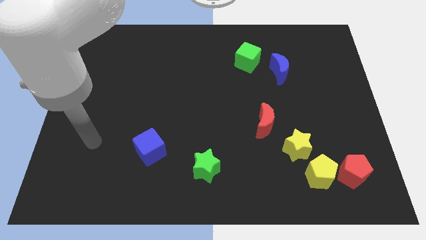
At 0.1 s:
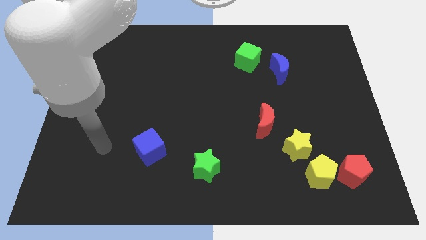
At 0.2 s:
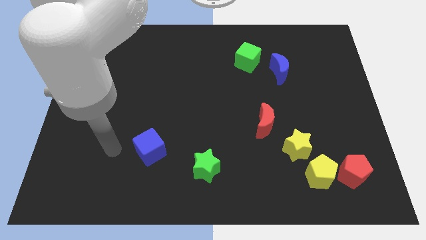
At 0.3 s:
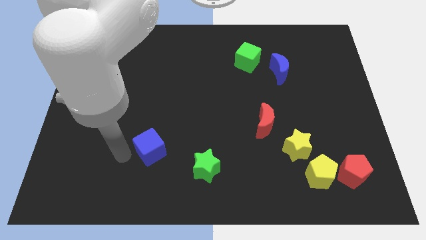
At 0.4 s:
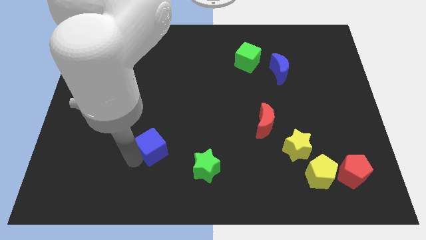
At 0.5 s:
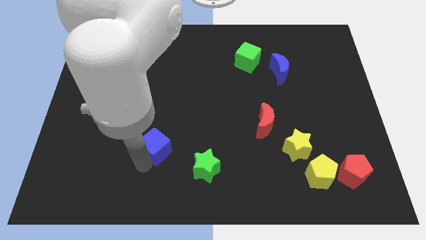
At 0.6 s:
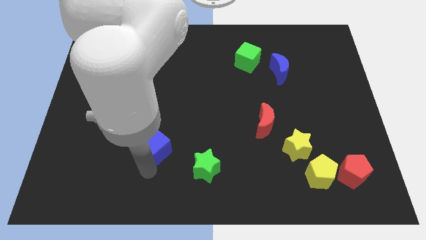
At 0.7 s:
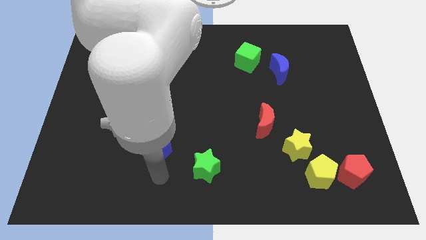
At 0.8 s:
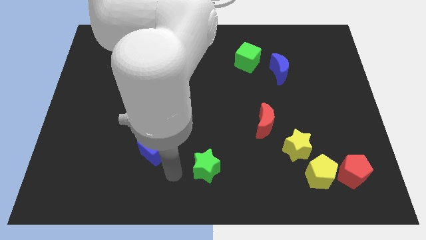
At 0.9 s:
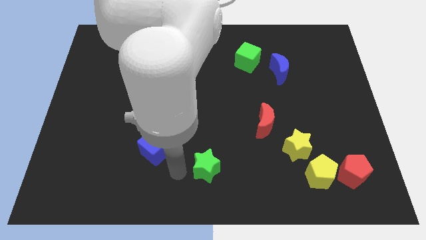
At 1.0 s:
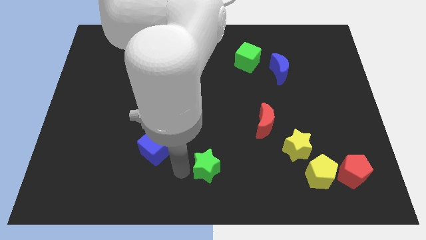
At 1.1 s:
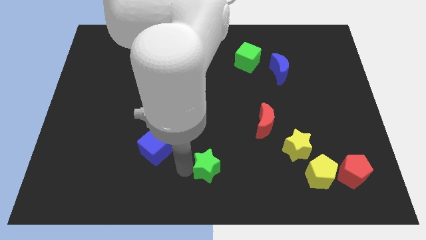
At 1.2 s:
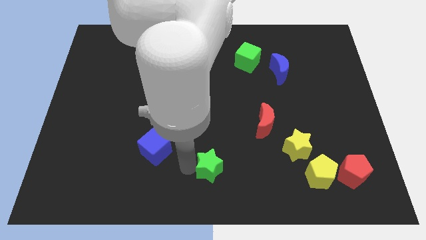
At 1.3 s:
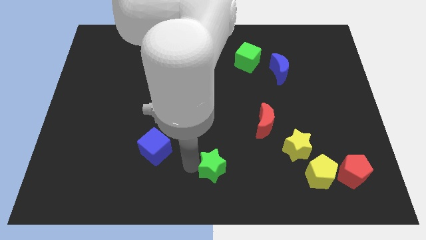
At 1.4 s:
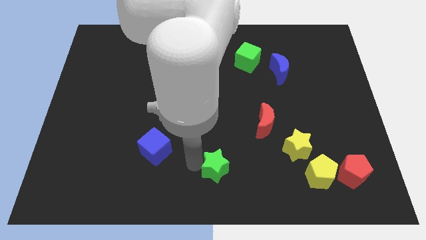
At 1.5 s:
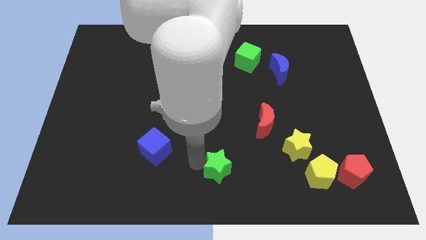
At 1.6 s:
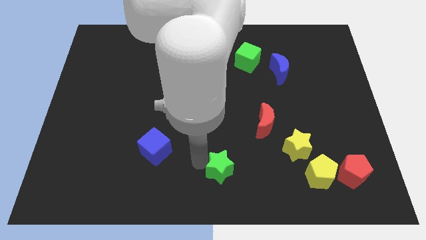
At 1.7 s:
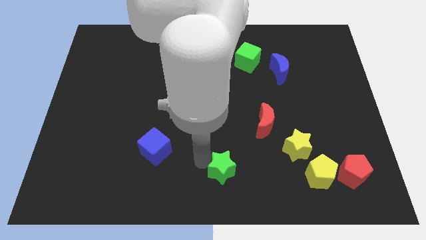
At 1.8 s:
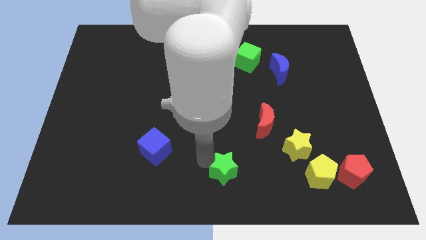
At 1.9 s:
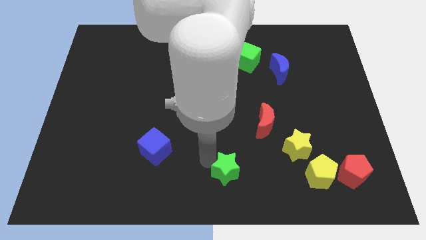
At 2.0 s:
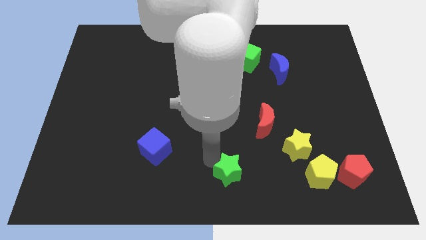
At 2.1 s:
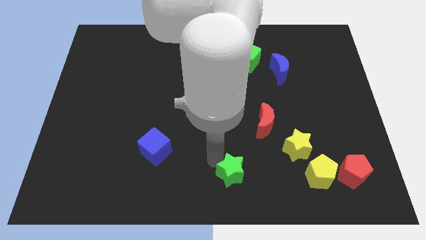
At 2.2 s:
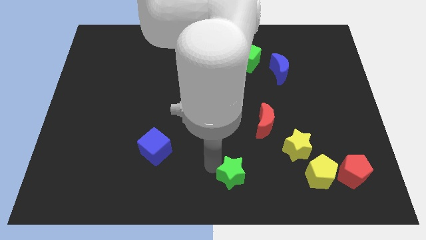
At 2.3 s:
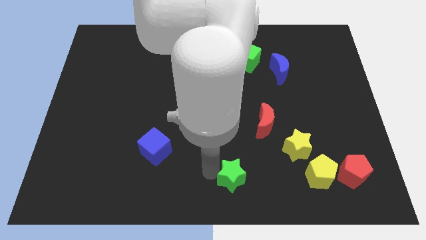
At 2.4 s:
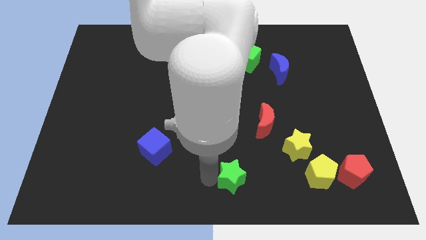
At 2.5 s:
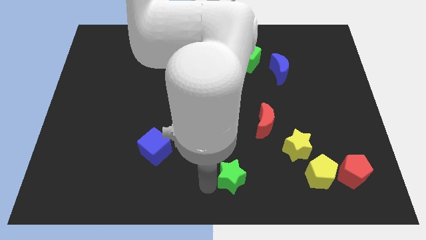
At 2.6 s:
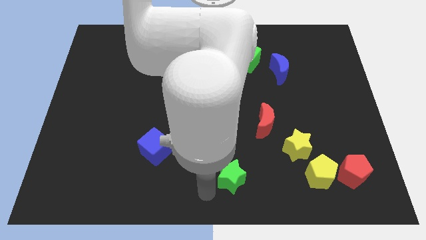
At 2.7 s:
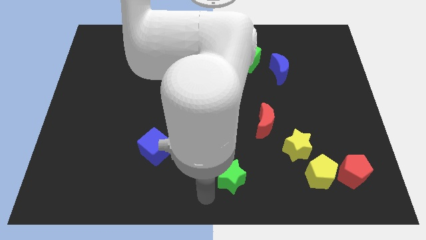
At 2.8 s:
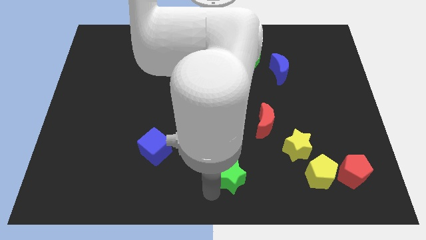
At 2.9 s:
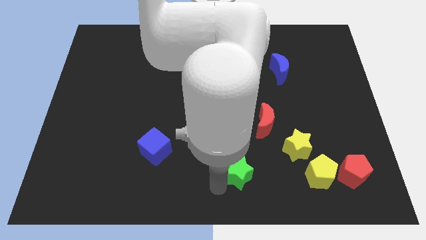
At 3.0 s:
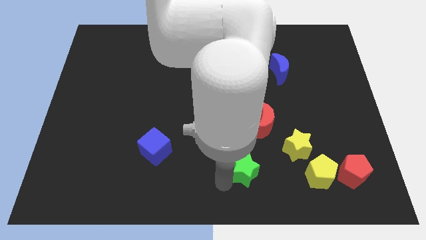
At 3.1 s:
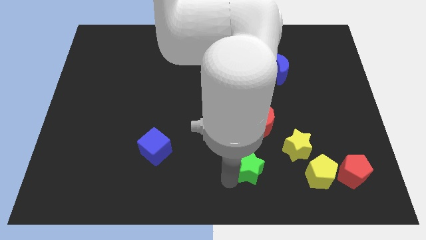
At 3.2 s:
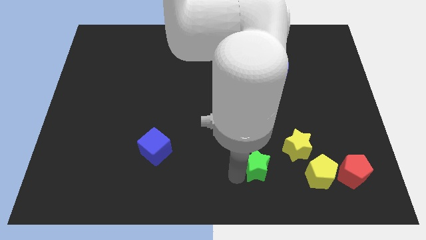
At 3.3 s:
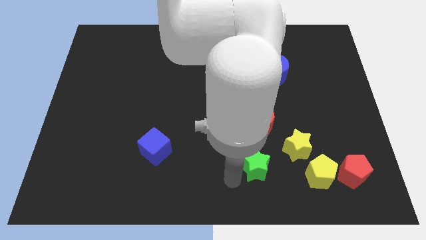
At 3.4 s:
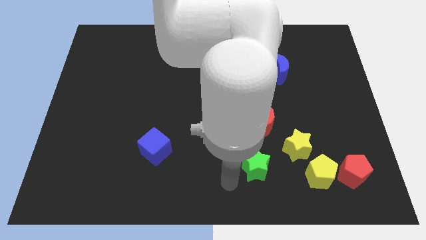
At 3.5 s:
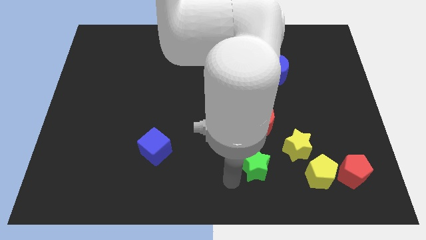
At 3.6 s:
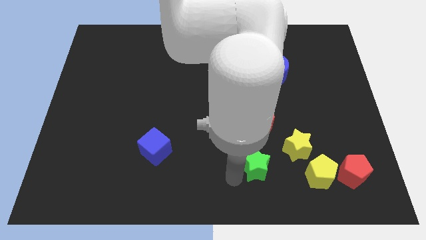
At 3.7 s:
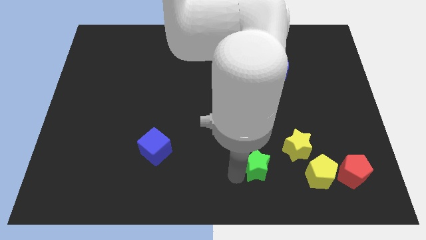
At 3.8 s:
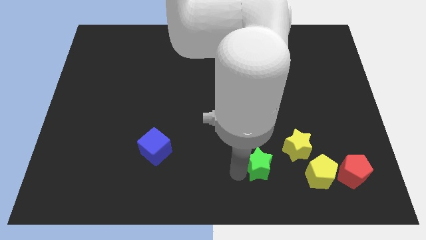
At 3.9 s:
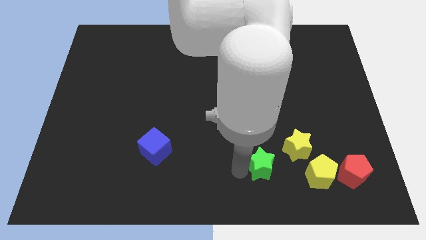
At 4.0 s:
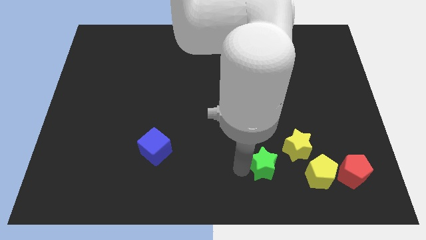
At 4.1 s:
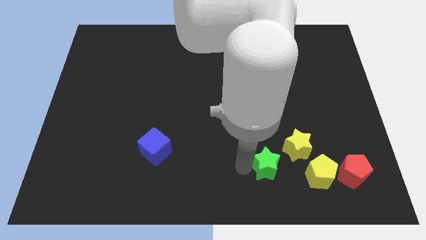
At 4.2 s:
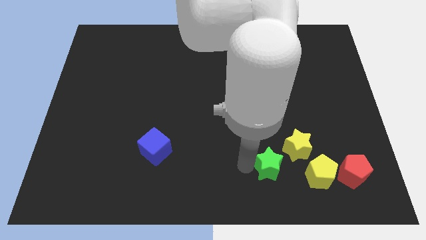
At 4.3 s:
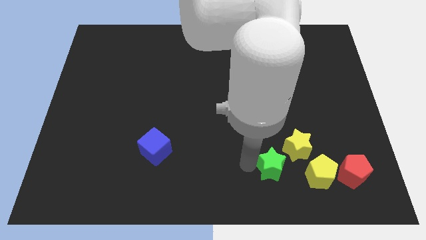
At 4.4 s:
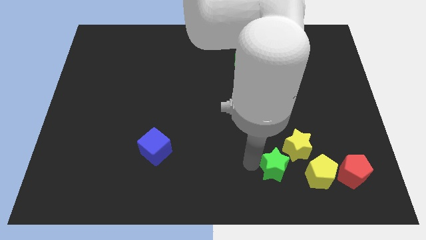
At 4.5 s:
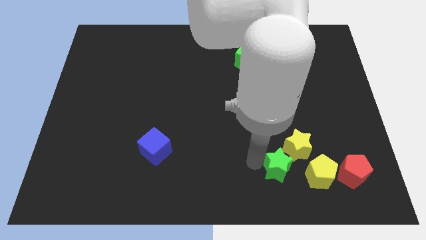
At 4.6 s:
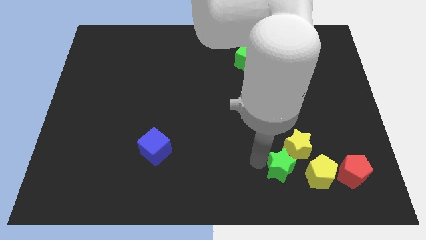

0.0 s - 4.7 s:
move the green star towards the yellow star

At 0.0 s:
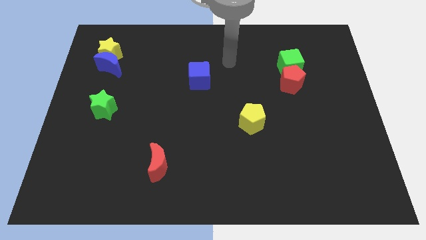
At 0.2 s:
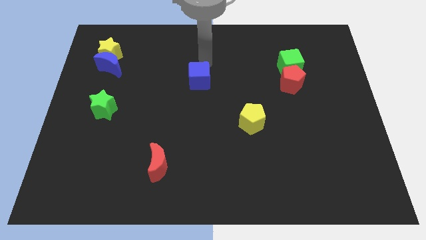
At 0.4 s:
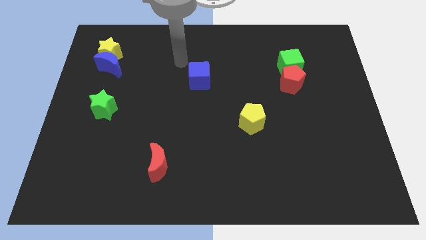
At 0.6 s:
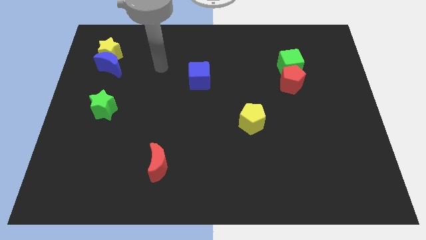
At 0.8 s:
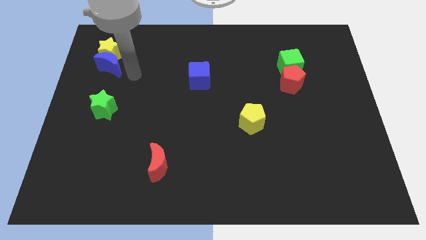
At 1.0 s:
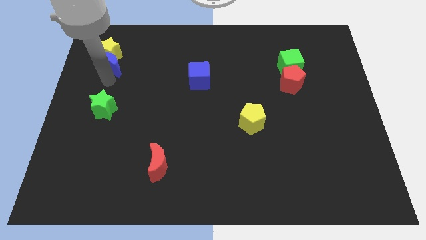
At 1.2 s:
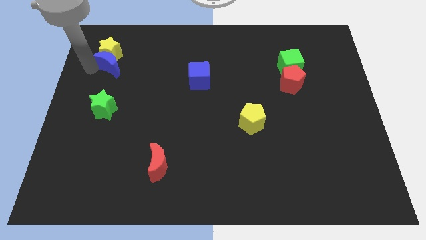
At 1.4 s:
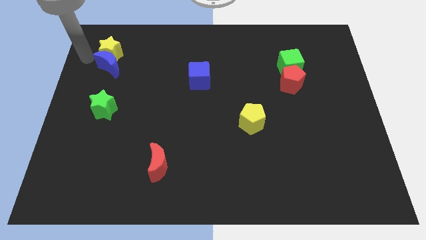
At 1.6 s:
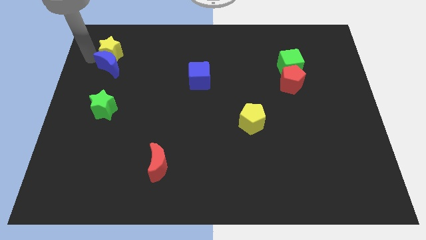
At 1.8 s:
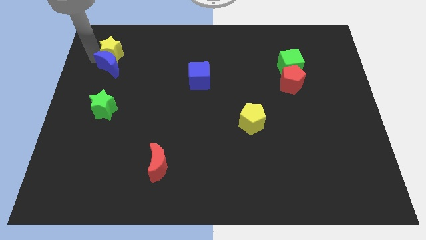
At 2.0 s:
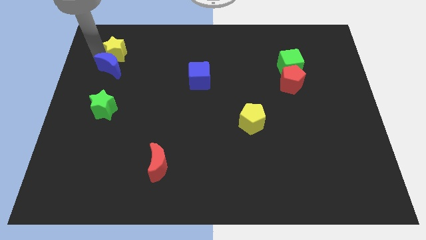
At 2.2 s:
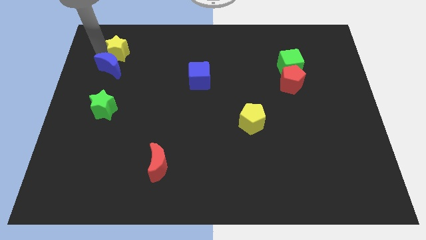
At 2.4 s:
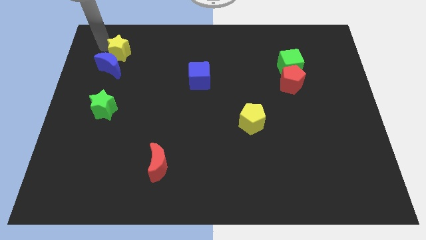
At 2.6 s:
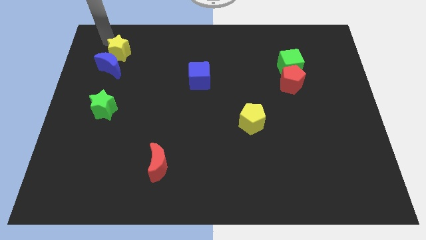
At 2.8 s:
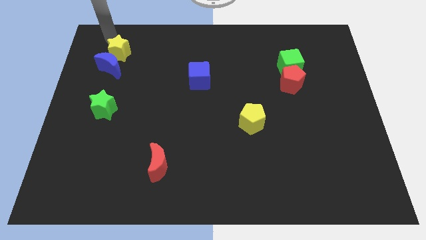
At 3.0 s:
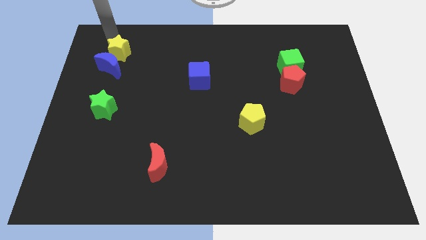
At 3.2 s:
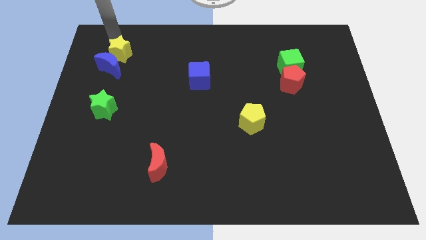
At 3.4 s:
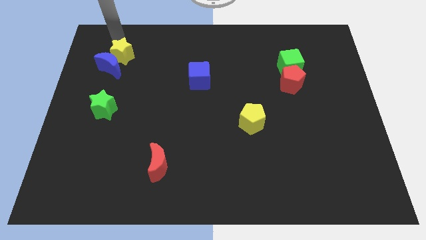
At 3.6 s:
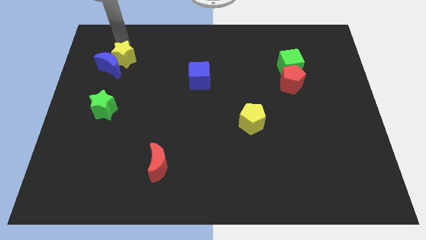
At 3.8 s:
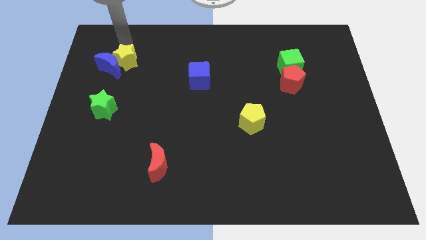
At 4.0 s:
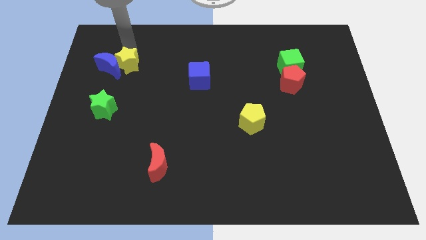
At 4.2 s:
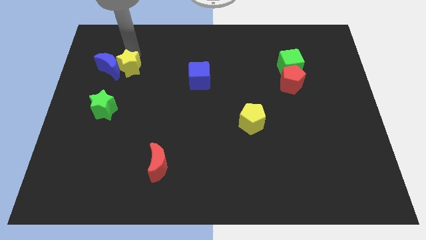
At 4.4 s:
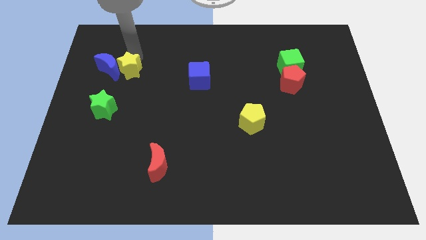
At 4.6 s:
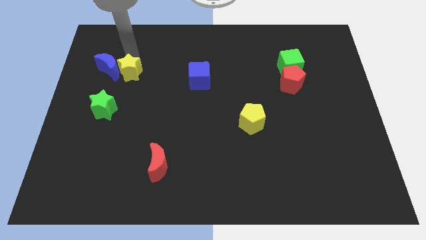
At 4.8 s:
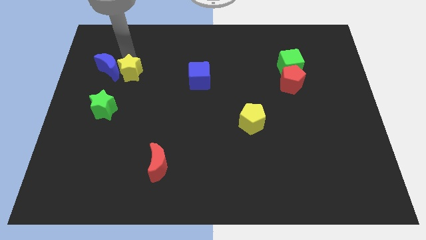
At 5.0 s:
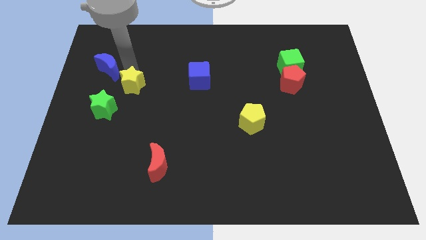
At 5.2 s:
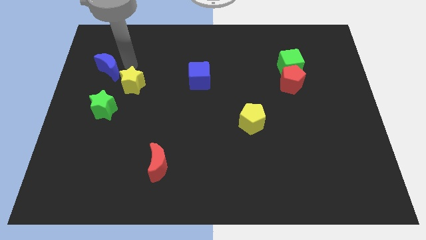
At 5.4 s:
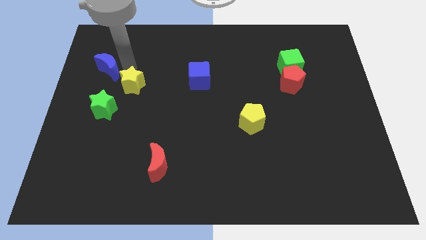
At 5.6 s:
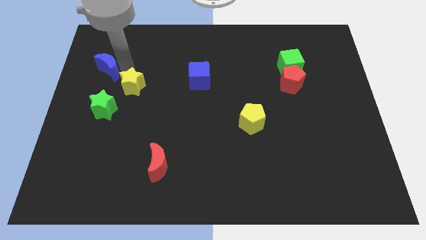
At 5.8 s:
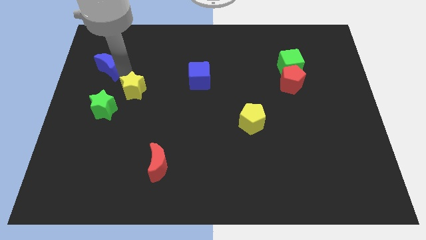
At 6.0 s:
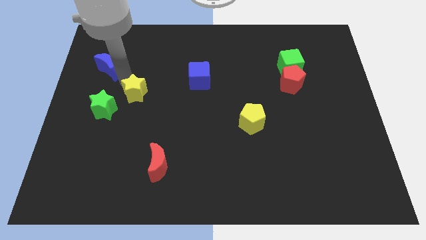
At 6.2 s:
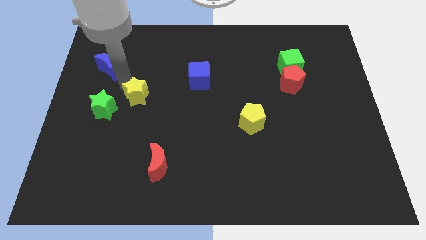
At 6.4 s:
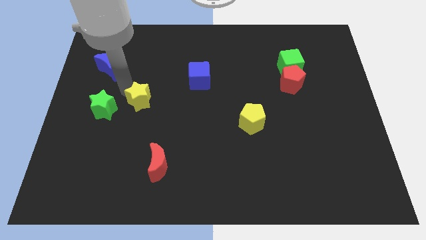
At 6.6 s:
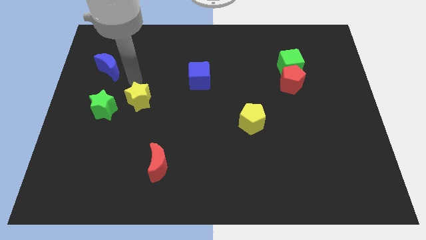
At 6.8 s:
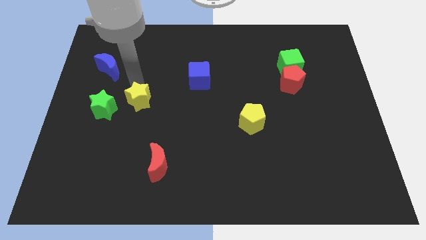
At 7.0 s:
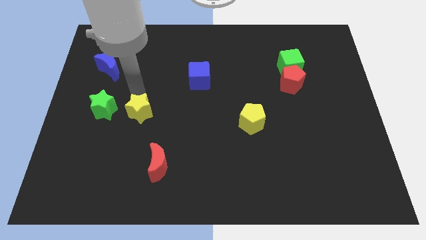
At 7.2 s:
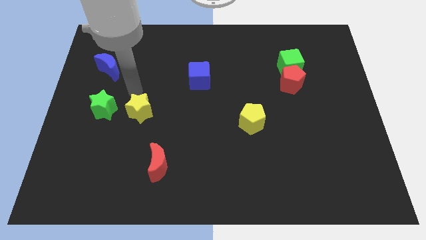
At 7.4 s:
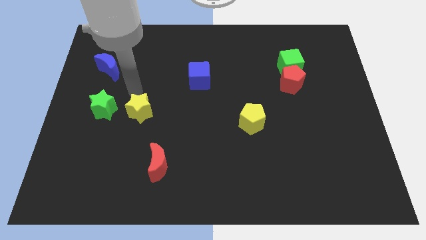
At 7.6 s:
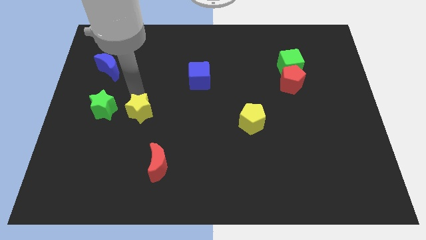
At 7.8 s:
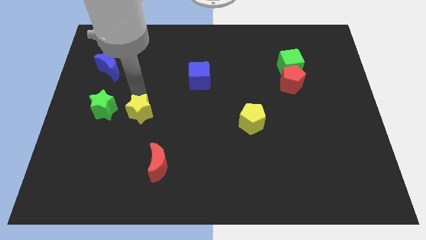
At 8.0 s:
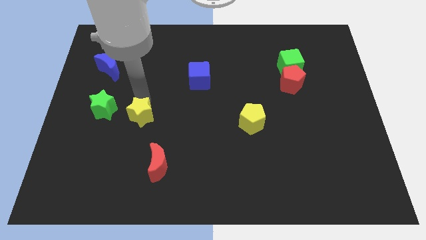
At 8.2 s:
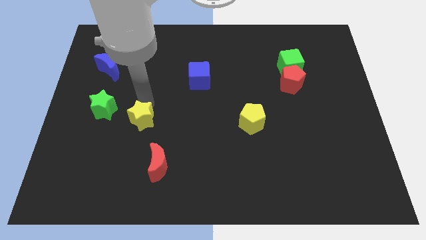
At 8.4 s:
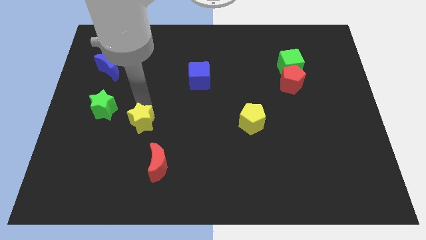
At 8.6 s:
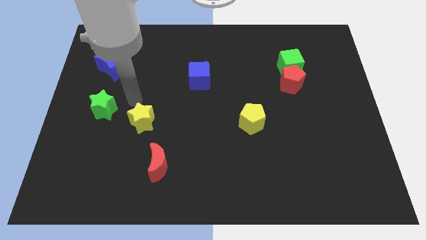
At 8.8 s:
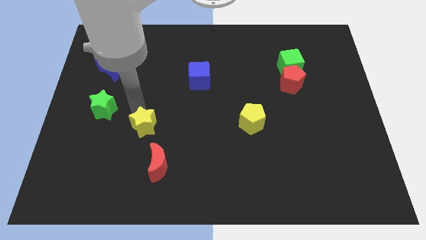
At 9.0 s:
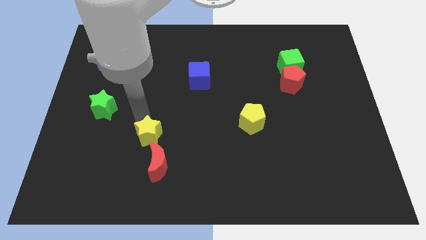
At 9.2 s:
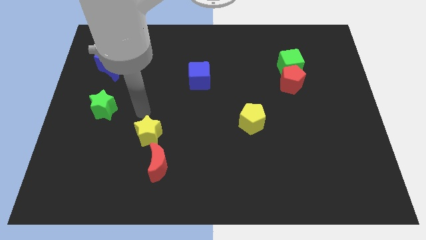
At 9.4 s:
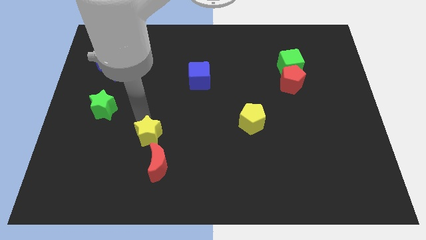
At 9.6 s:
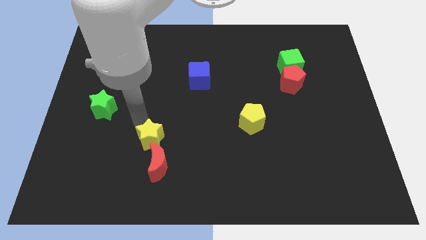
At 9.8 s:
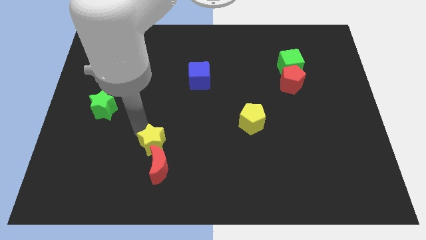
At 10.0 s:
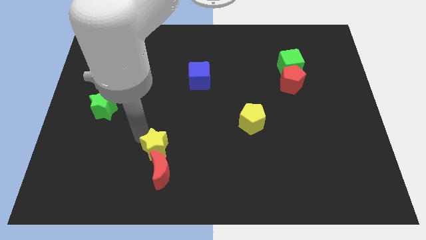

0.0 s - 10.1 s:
push the yellow star close to the red moon
